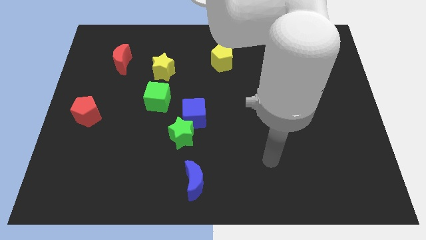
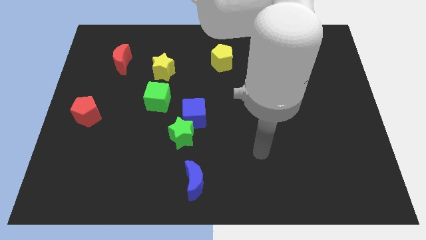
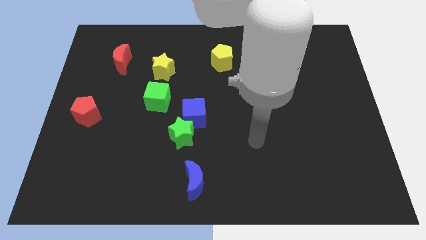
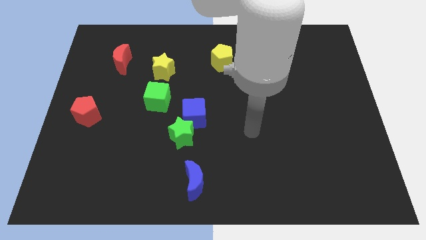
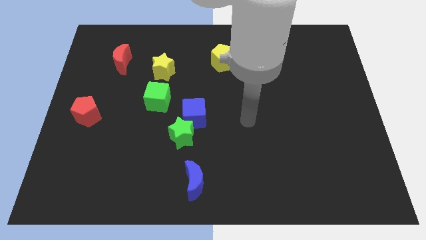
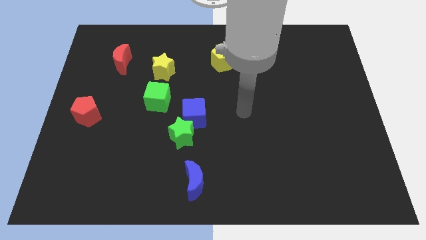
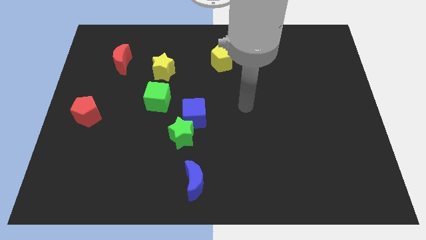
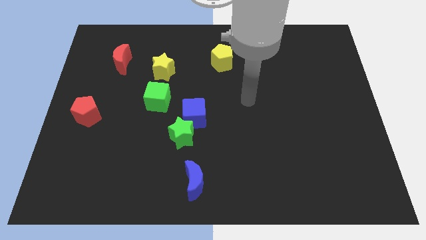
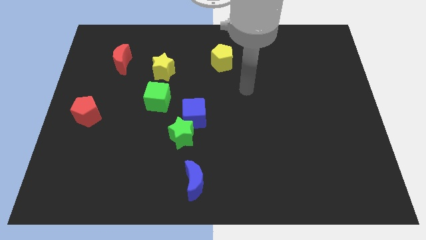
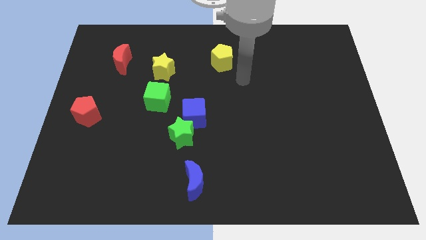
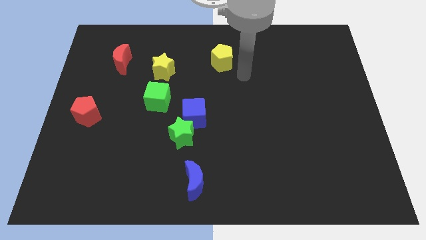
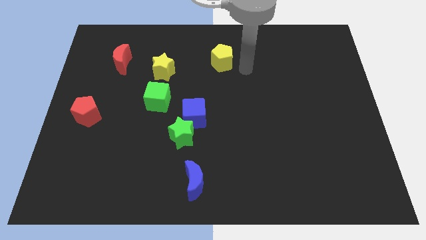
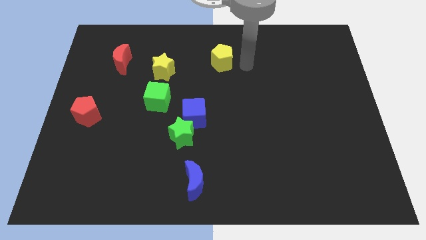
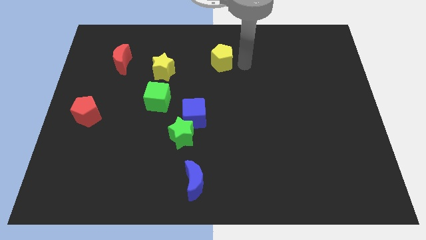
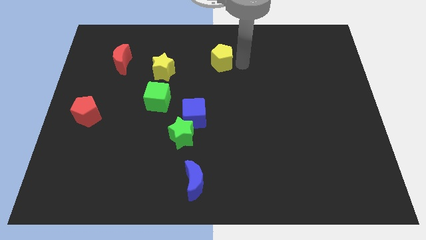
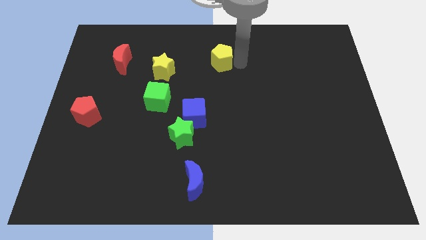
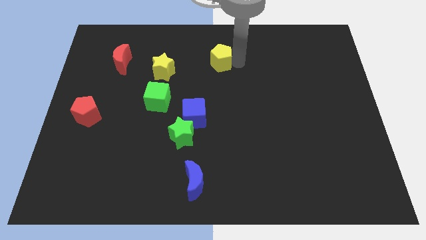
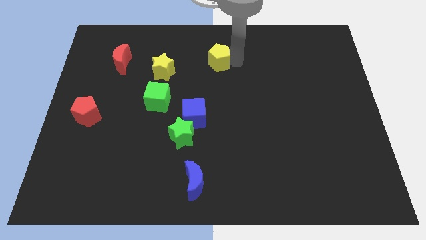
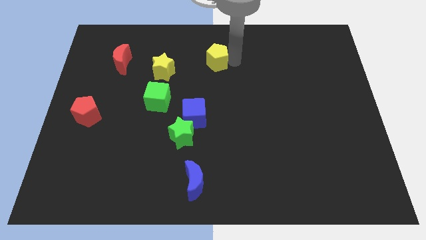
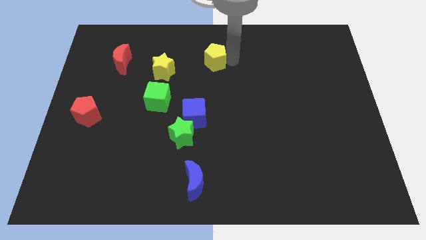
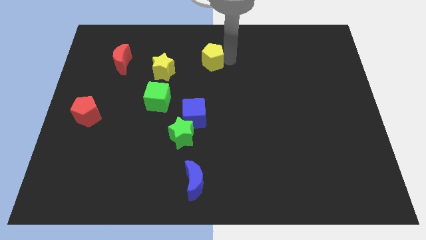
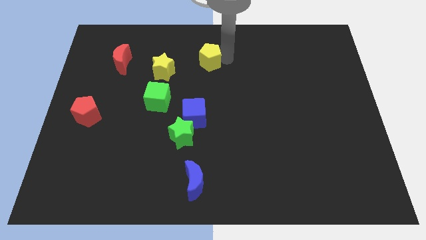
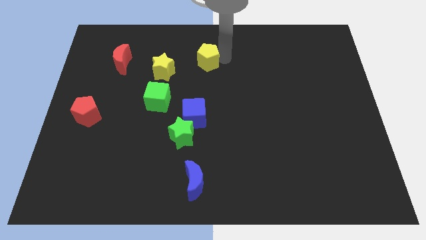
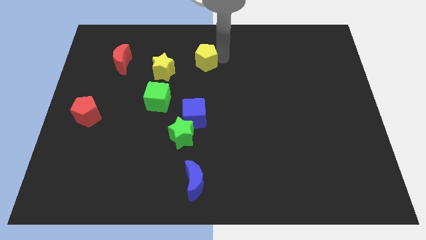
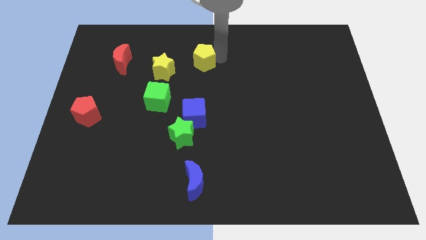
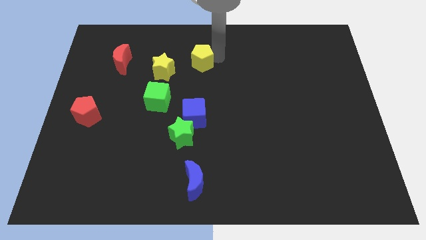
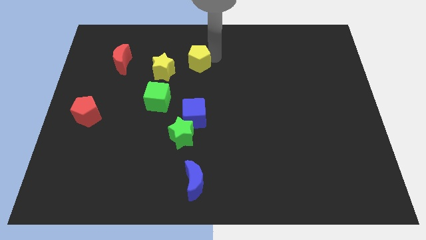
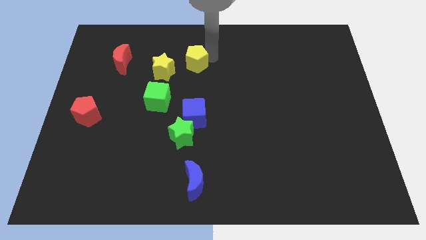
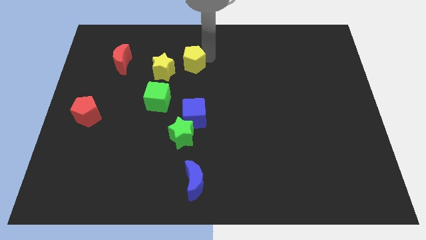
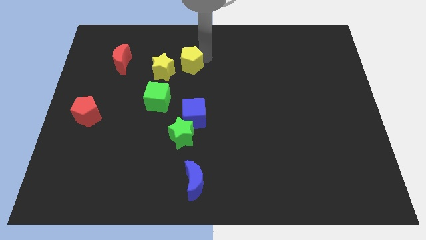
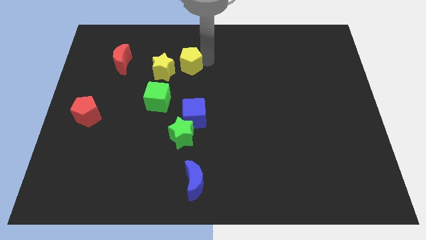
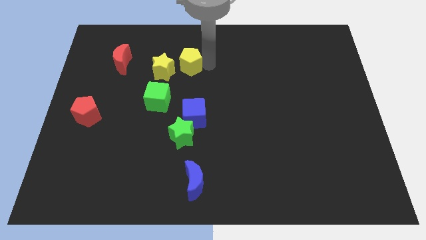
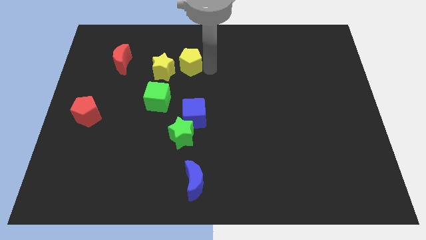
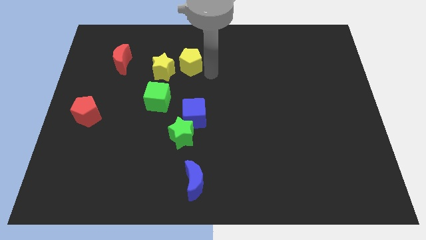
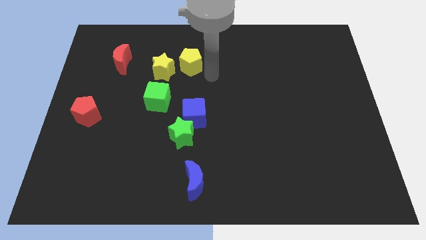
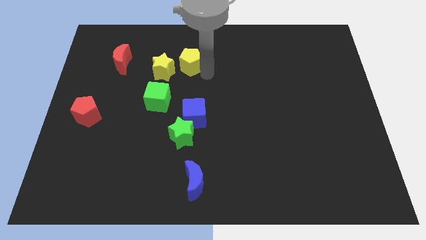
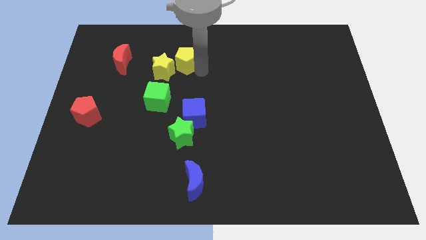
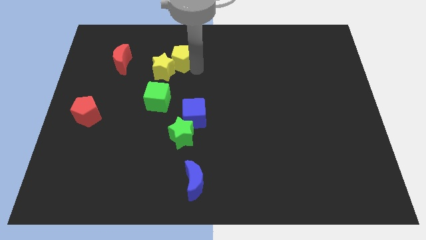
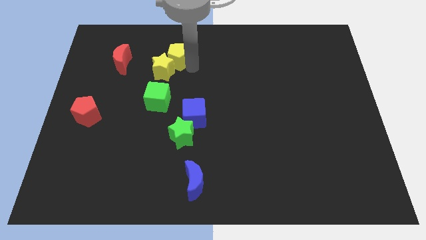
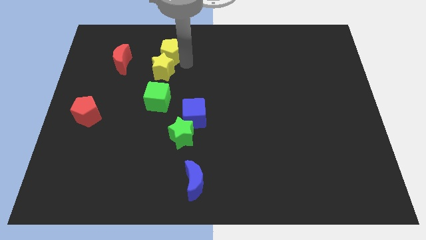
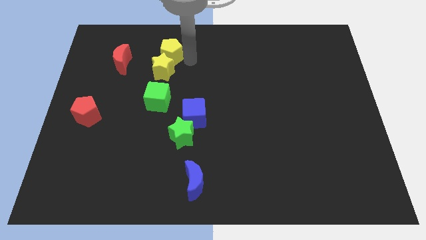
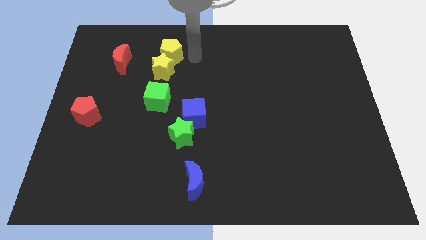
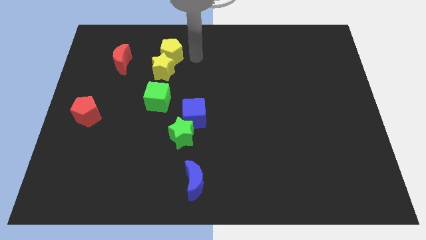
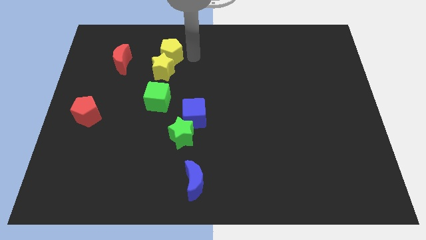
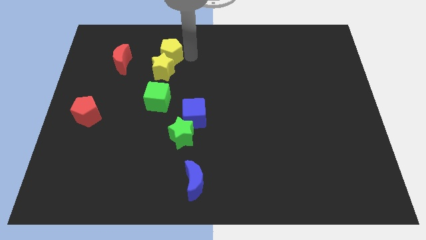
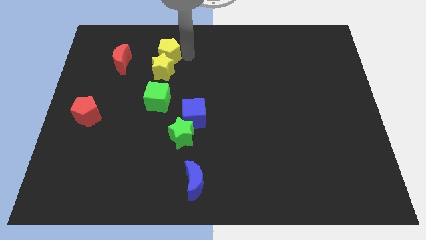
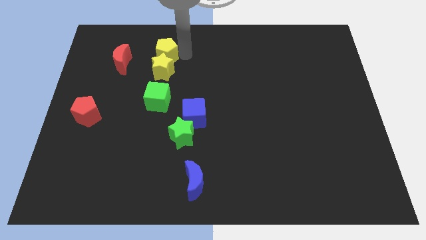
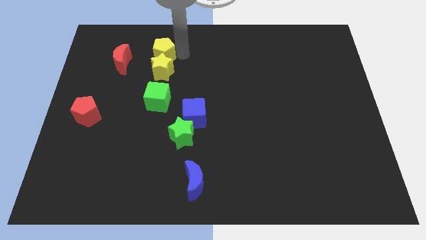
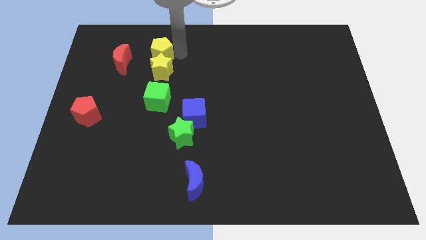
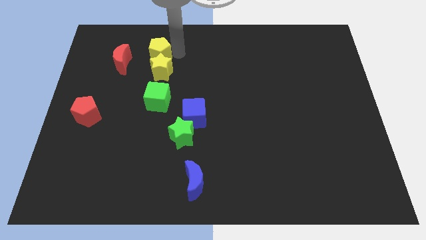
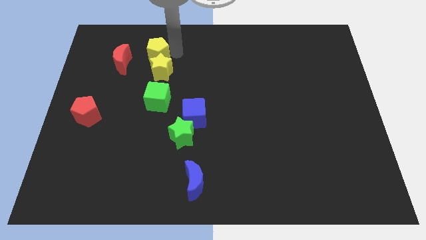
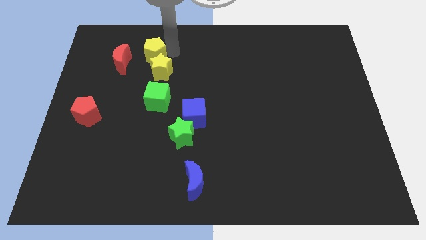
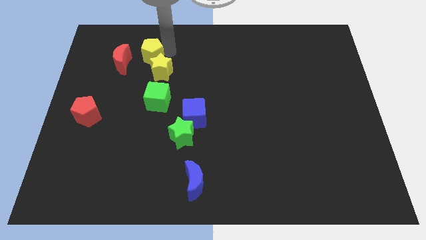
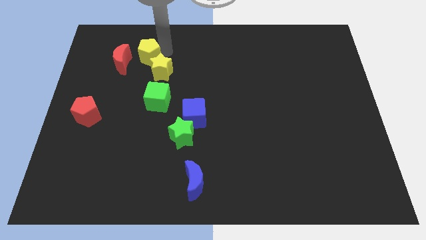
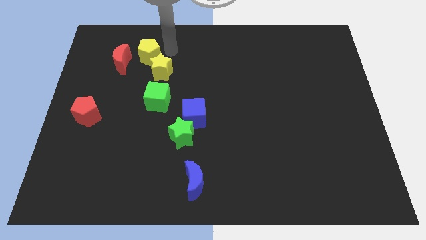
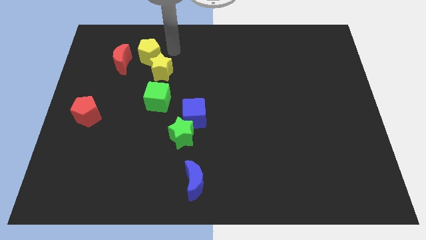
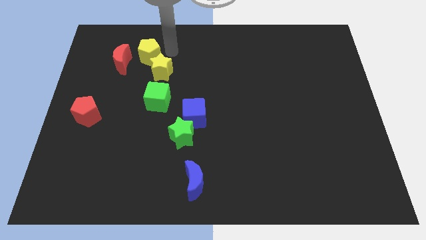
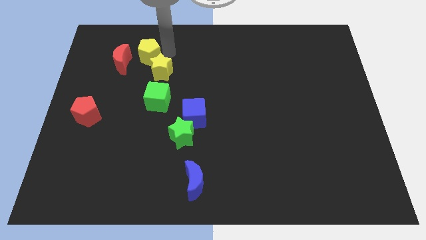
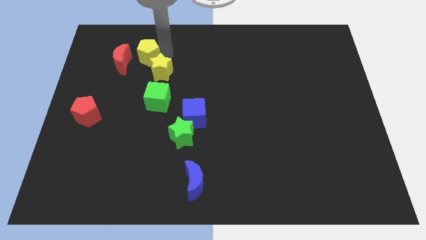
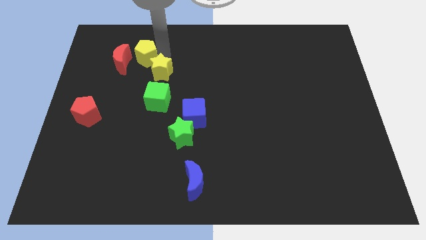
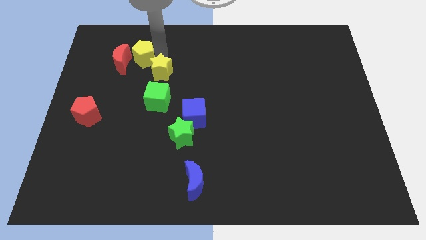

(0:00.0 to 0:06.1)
slide the yellow pentagon towards the red moon

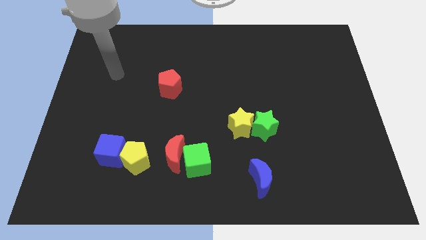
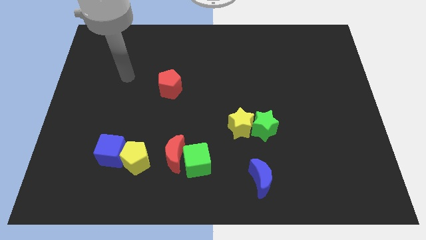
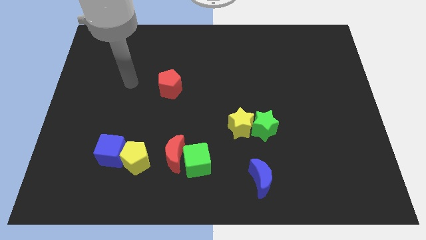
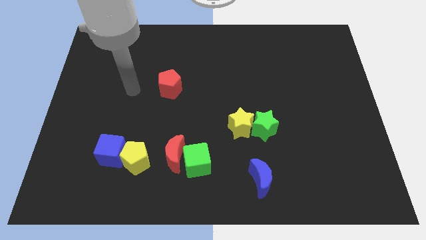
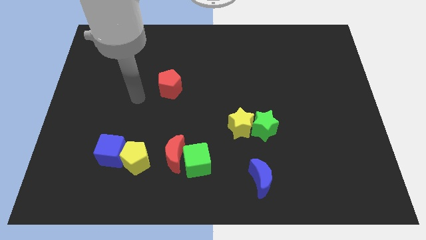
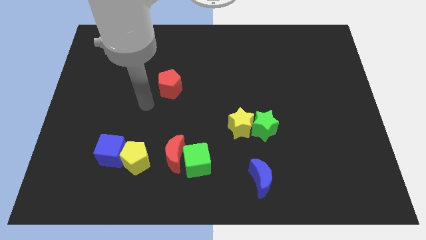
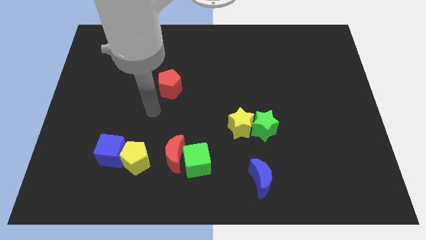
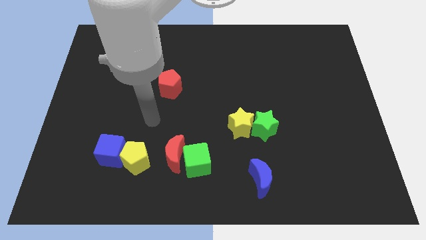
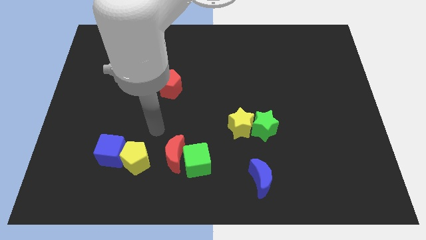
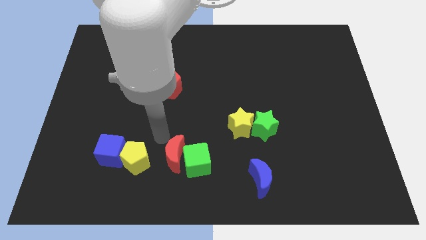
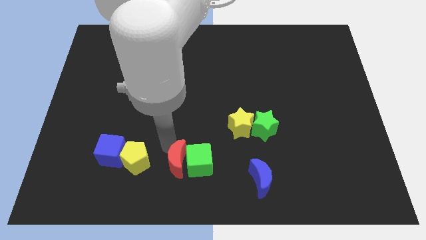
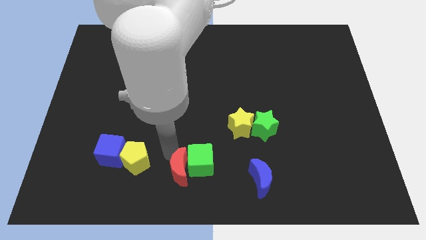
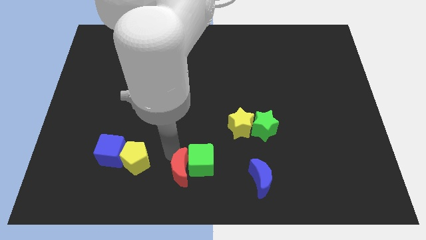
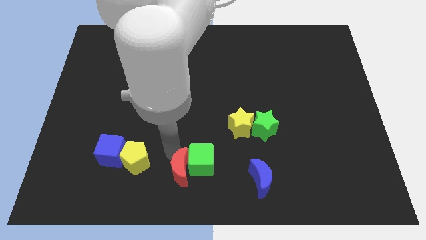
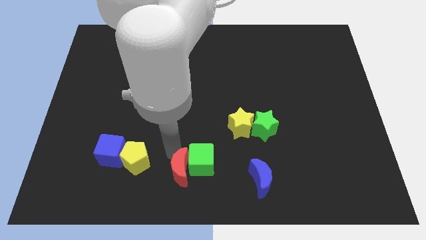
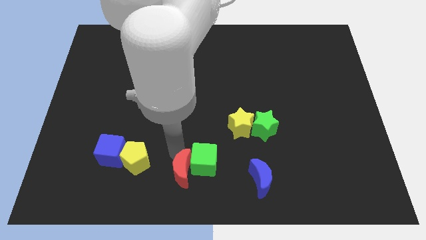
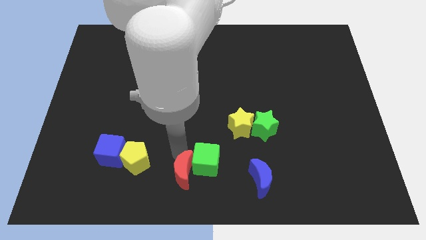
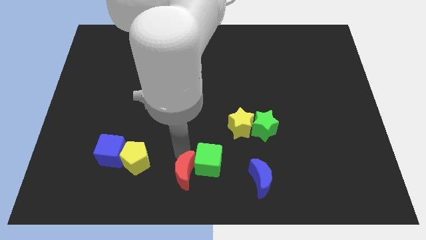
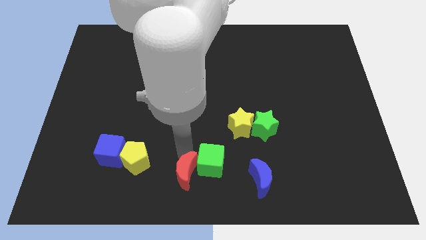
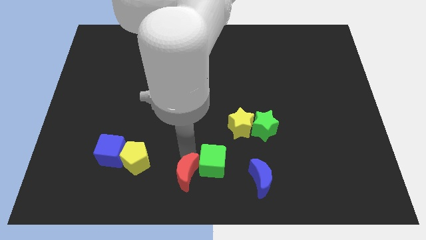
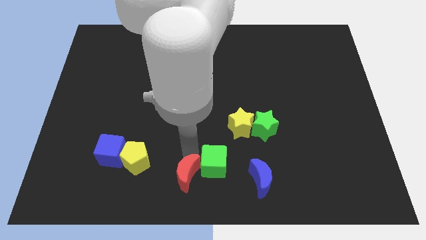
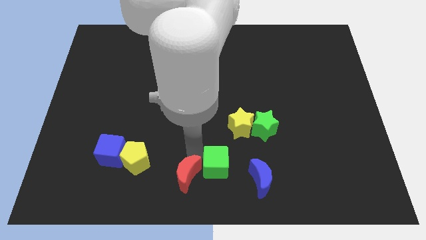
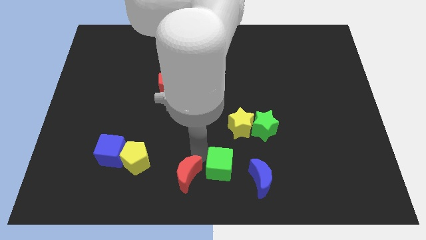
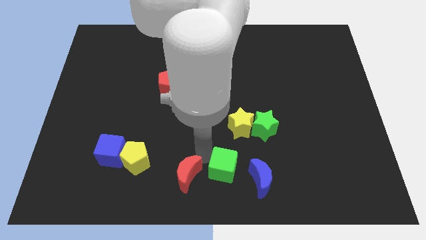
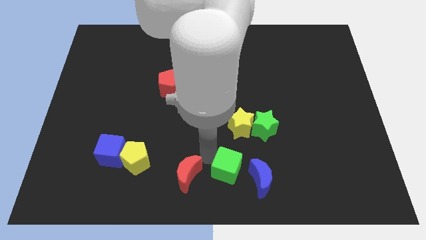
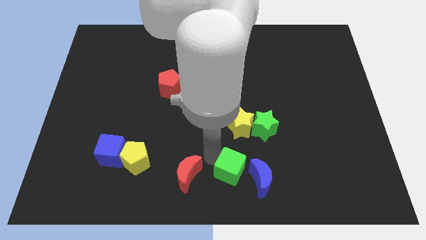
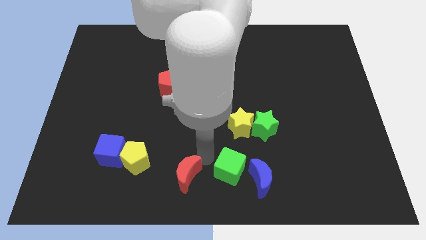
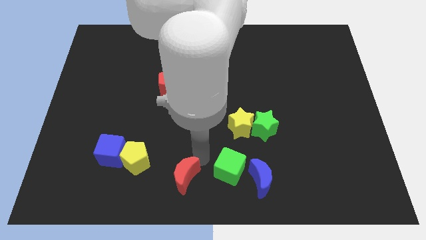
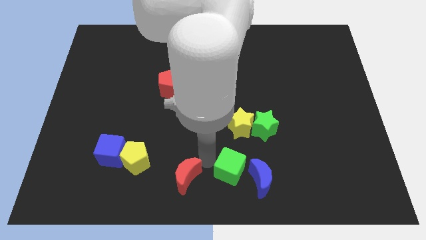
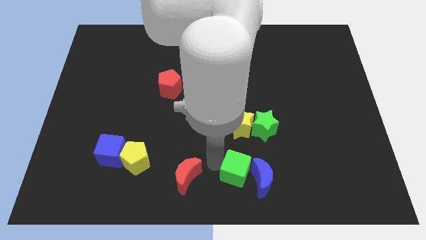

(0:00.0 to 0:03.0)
move the green cube towards the blue moon
